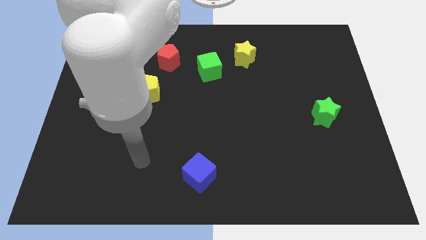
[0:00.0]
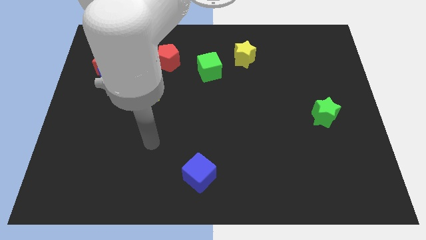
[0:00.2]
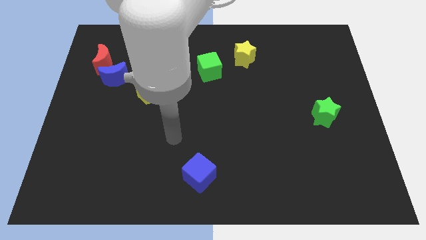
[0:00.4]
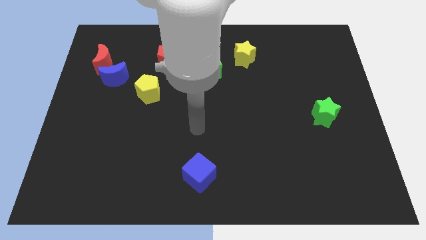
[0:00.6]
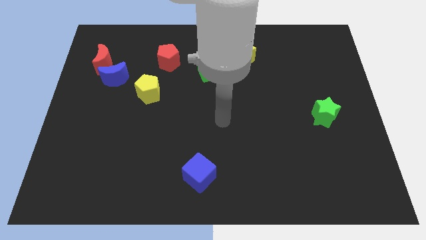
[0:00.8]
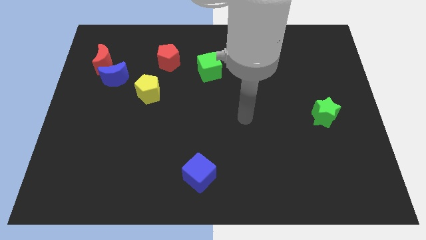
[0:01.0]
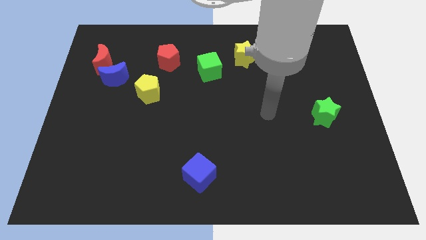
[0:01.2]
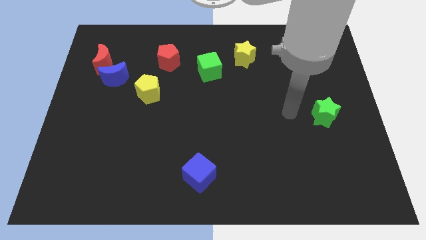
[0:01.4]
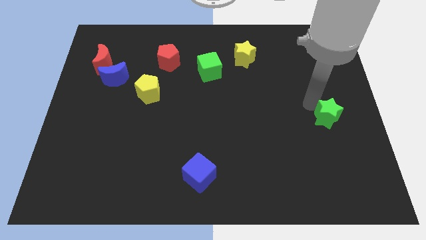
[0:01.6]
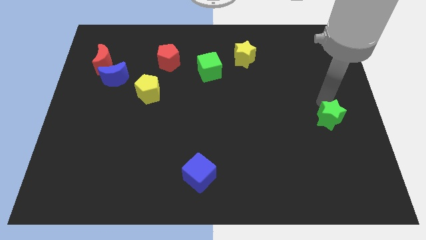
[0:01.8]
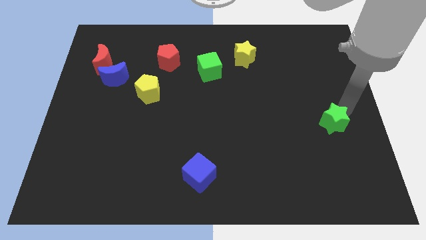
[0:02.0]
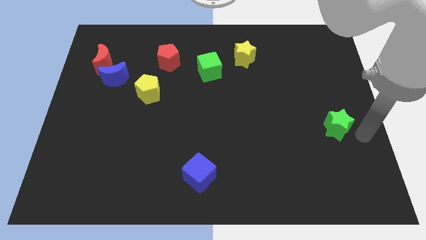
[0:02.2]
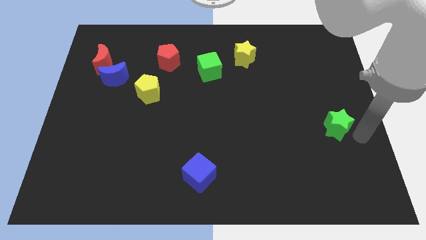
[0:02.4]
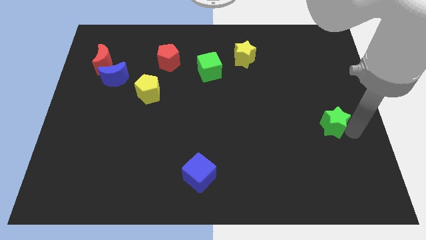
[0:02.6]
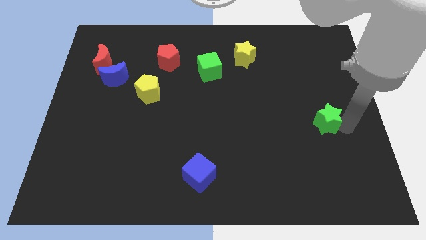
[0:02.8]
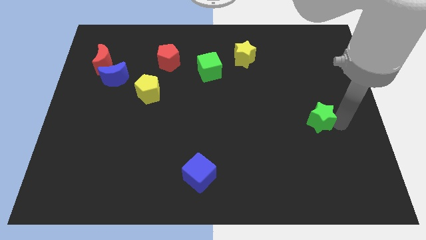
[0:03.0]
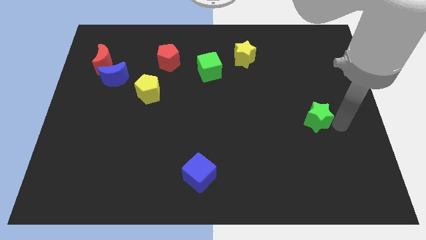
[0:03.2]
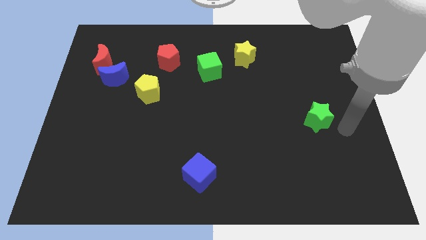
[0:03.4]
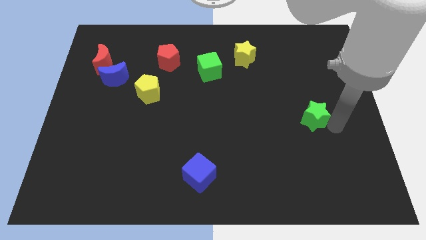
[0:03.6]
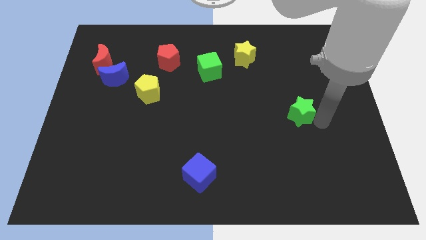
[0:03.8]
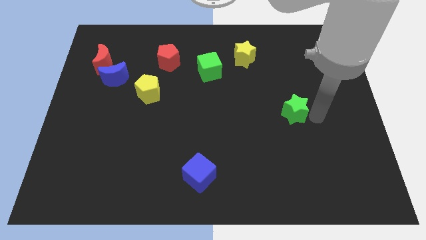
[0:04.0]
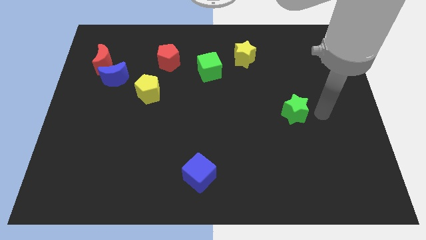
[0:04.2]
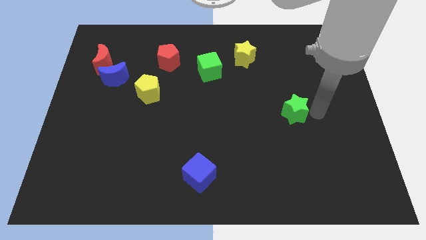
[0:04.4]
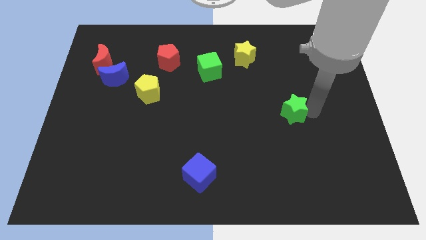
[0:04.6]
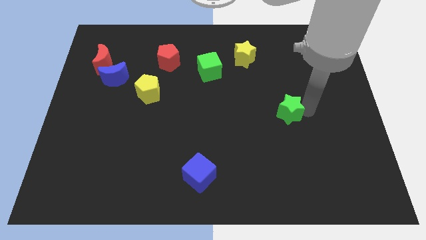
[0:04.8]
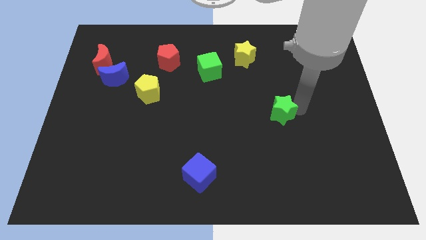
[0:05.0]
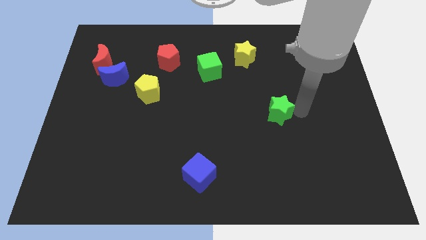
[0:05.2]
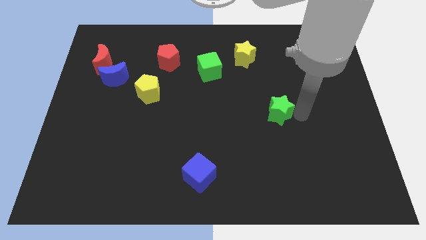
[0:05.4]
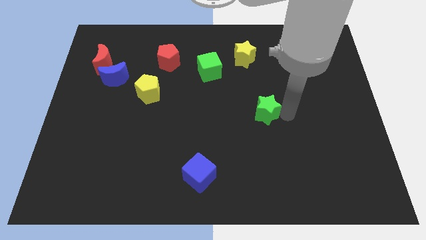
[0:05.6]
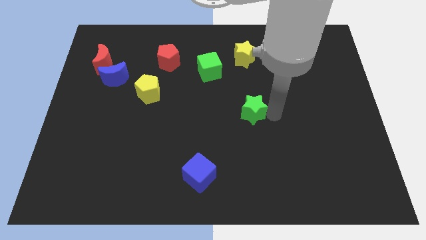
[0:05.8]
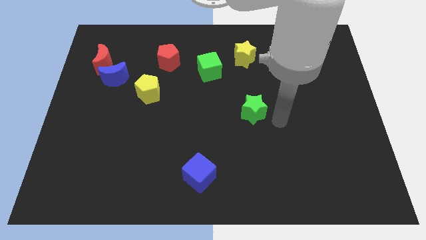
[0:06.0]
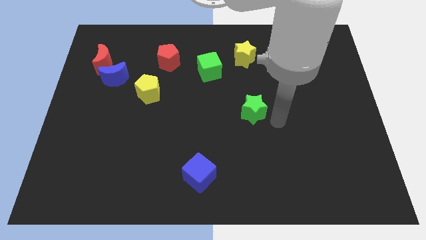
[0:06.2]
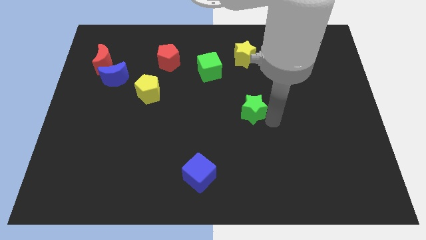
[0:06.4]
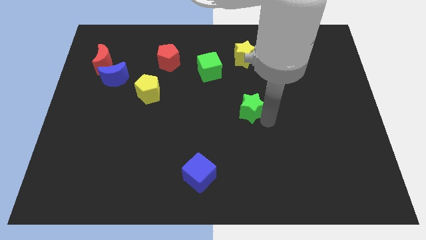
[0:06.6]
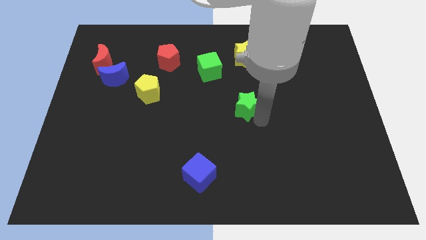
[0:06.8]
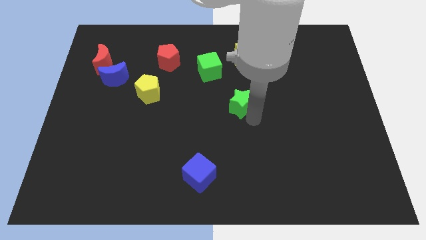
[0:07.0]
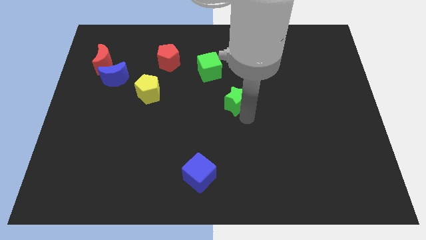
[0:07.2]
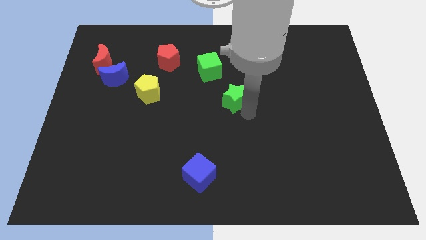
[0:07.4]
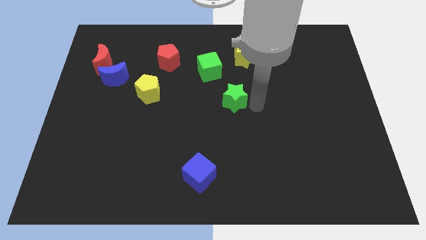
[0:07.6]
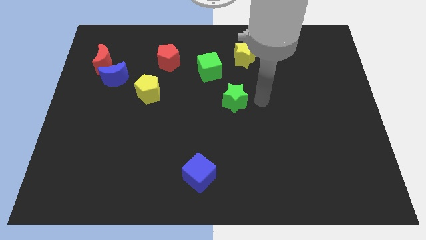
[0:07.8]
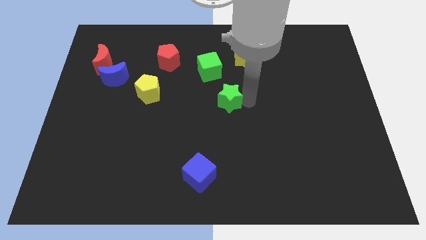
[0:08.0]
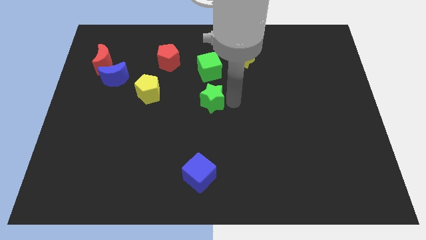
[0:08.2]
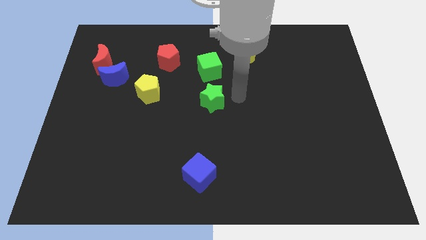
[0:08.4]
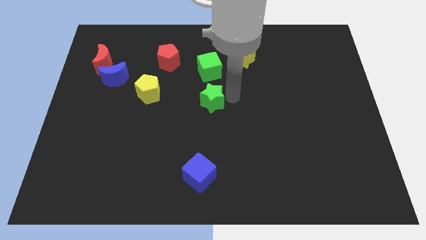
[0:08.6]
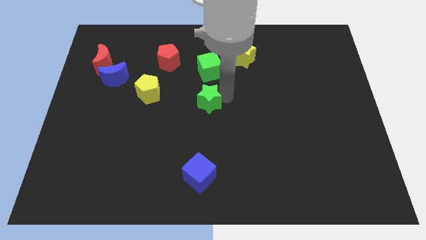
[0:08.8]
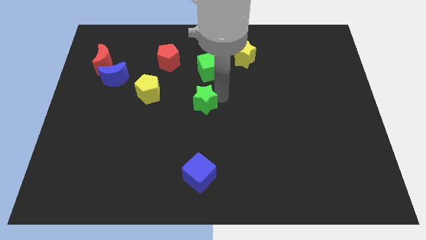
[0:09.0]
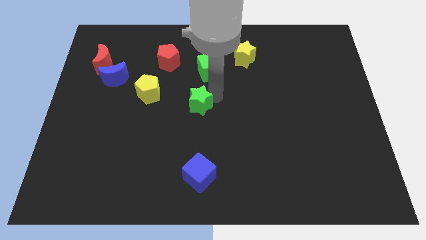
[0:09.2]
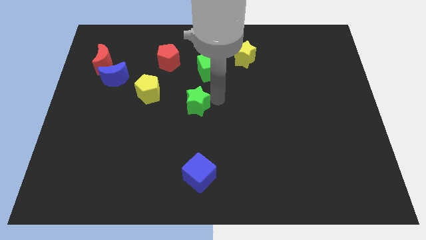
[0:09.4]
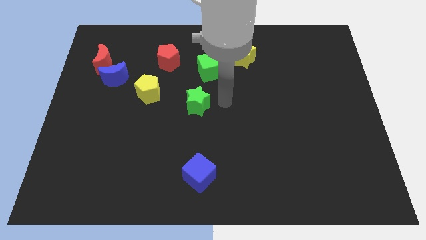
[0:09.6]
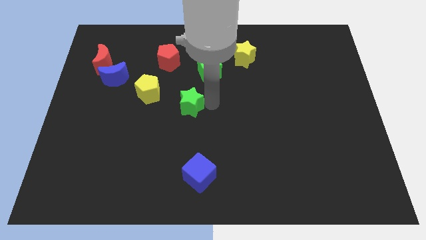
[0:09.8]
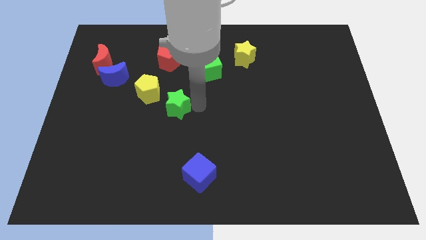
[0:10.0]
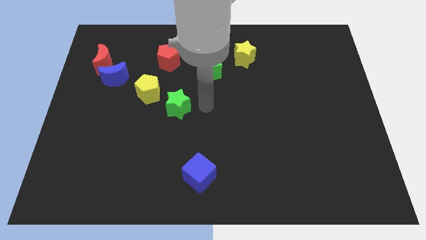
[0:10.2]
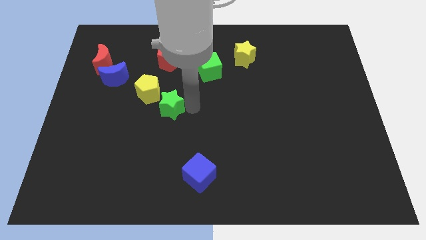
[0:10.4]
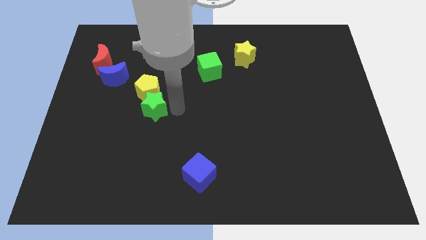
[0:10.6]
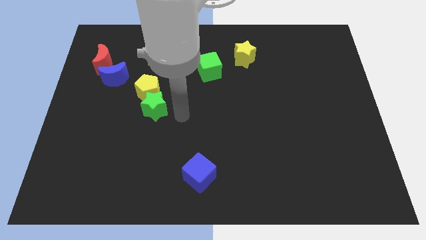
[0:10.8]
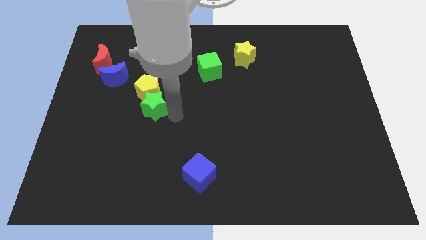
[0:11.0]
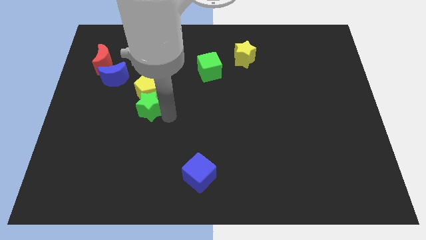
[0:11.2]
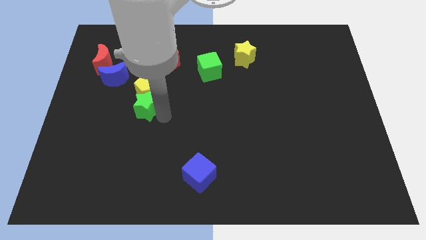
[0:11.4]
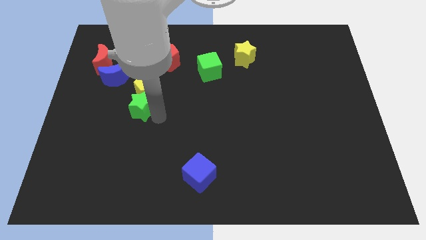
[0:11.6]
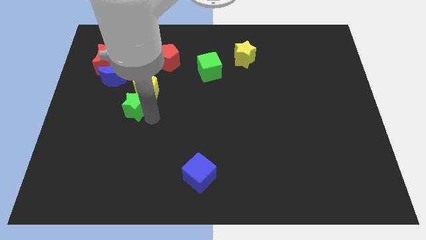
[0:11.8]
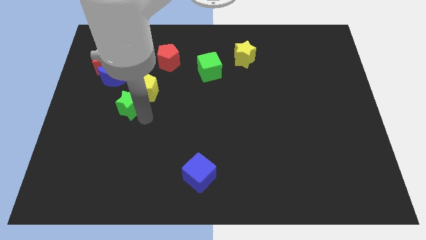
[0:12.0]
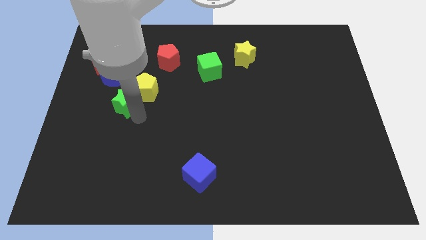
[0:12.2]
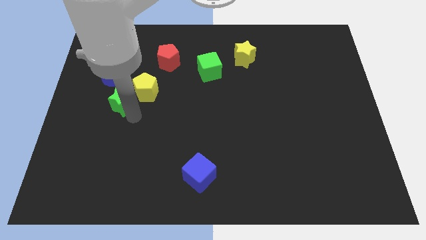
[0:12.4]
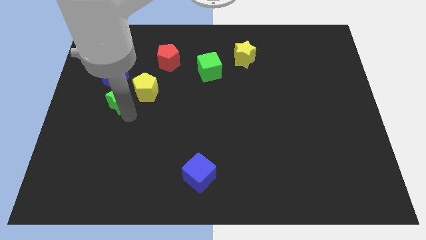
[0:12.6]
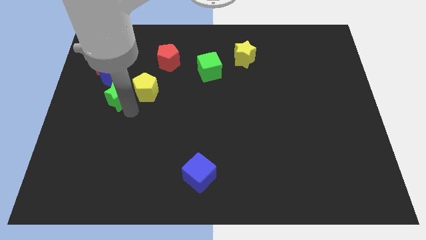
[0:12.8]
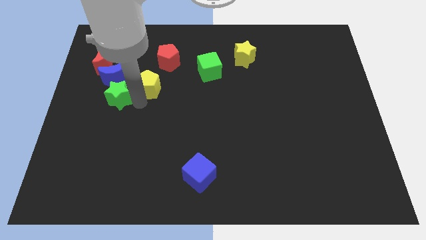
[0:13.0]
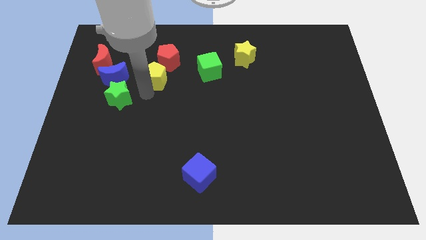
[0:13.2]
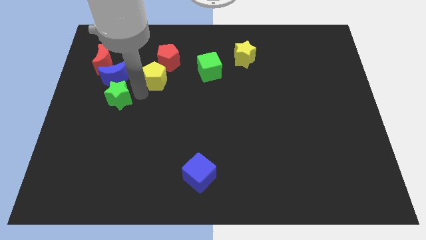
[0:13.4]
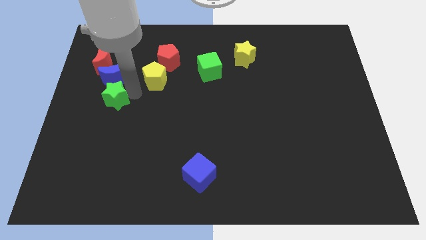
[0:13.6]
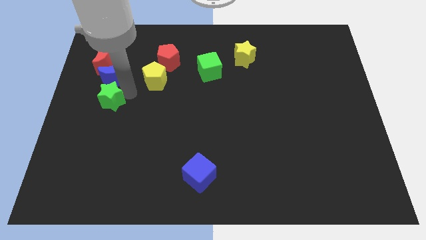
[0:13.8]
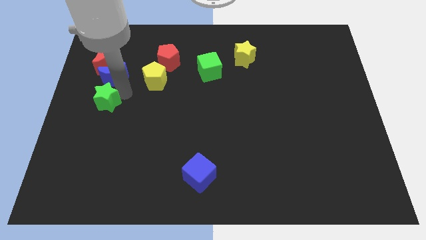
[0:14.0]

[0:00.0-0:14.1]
push the green star to the left side of the board
